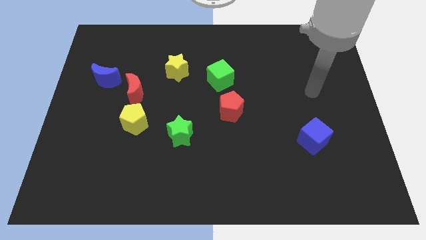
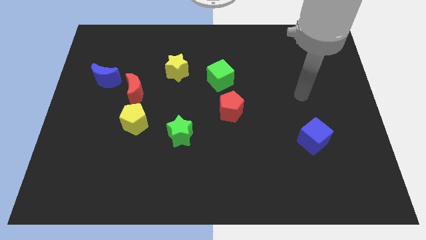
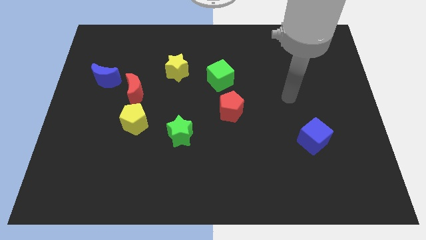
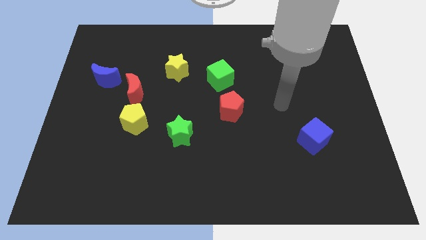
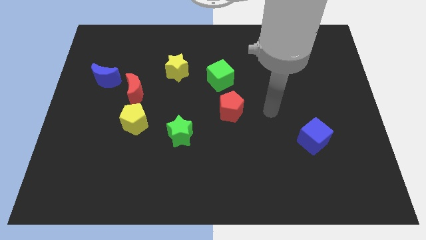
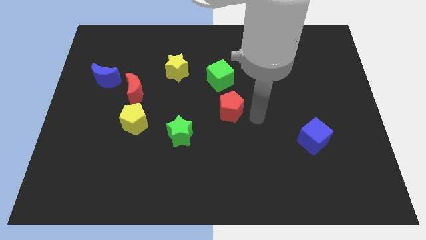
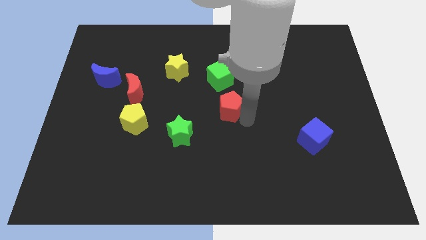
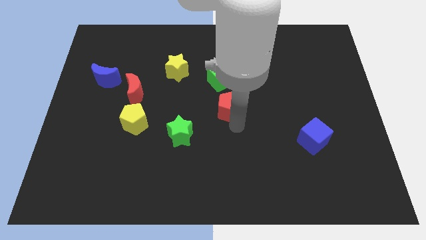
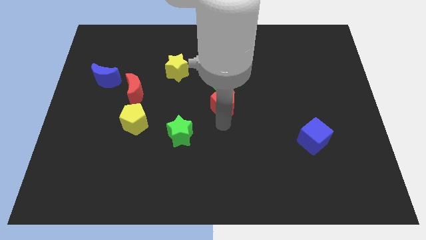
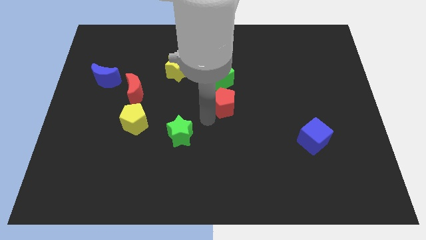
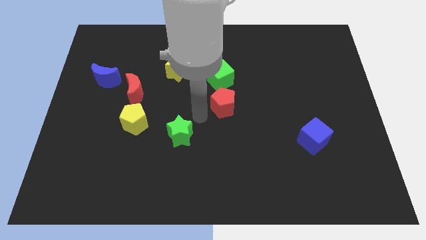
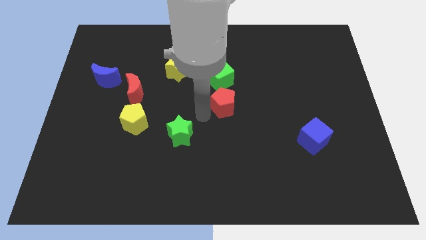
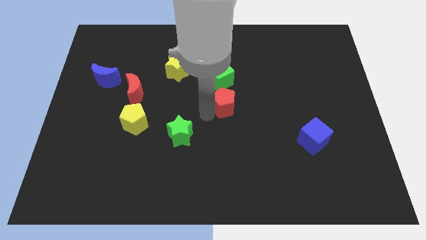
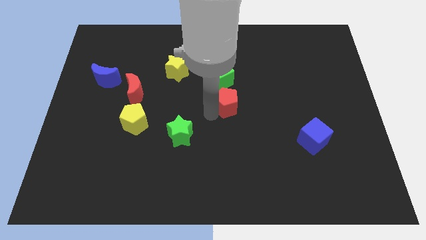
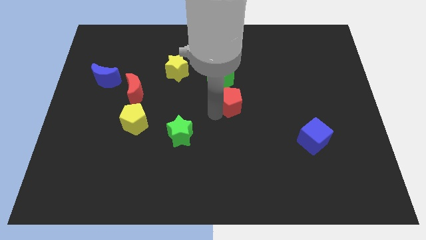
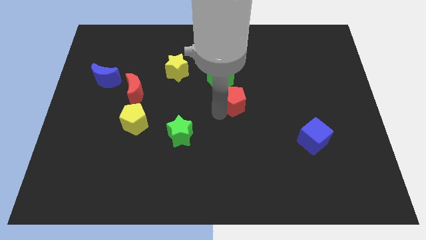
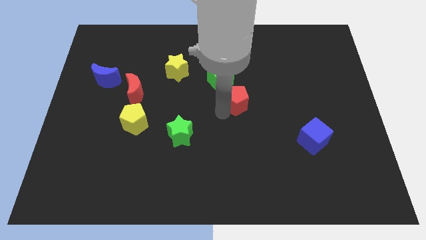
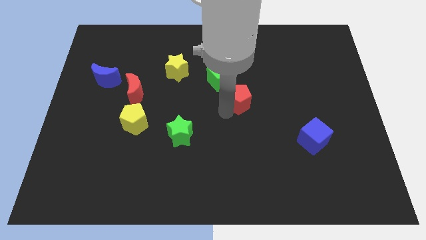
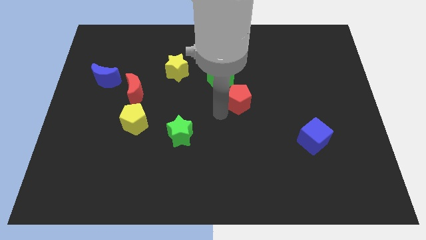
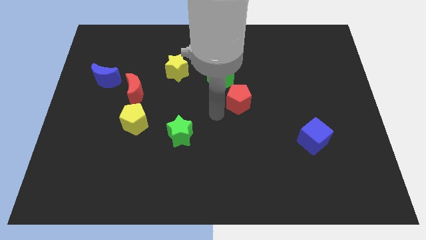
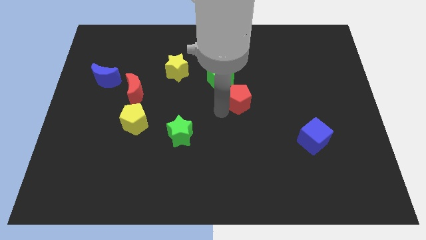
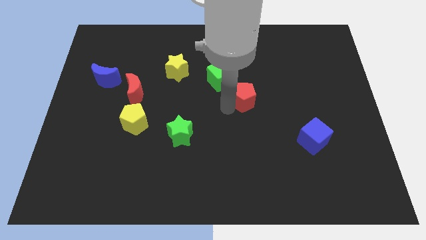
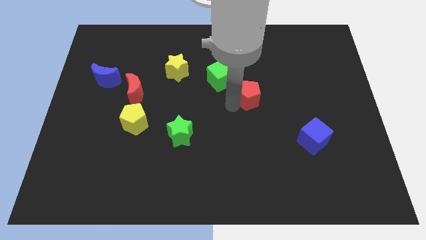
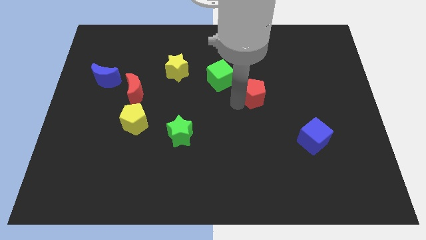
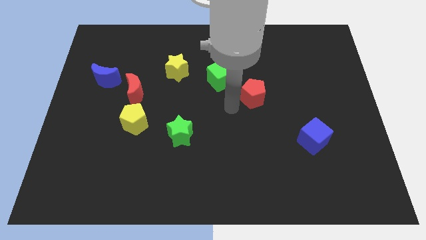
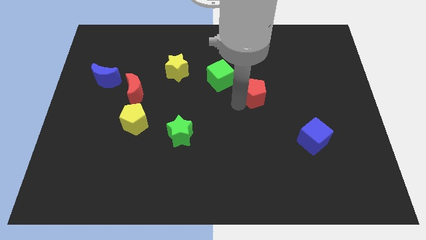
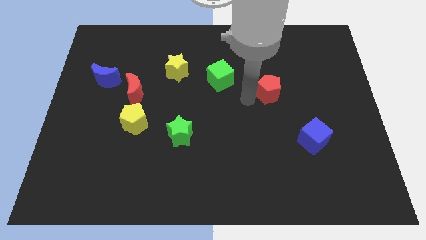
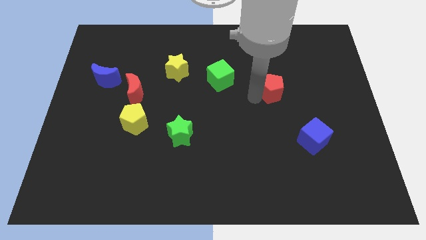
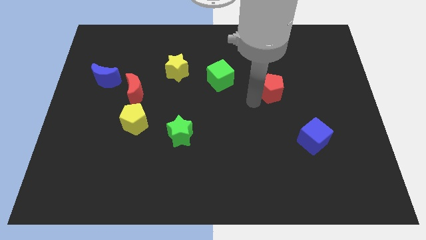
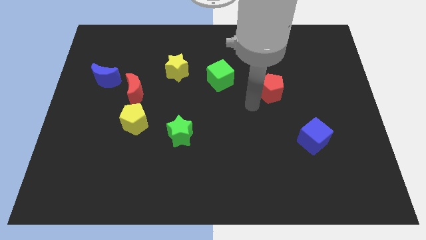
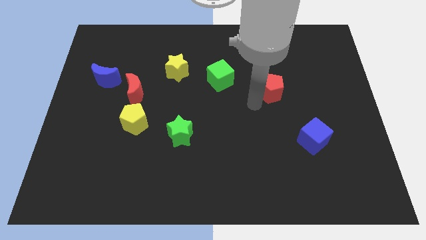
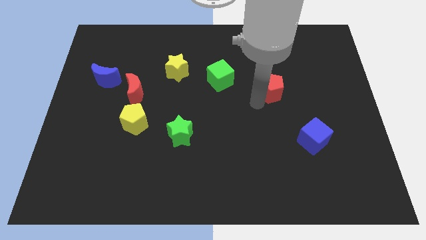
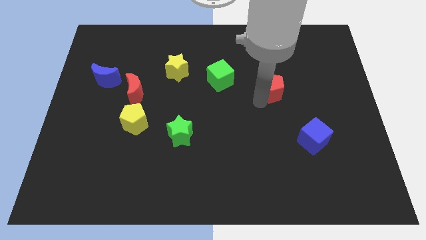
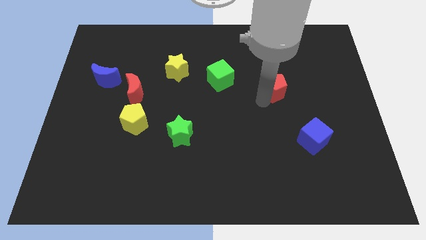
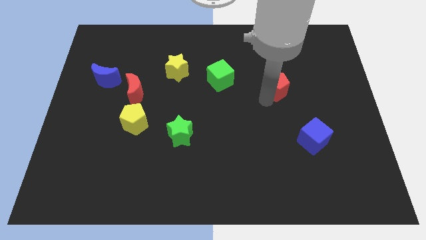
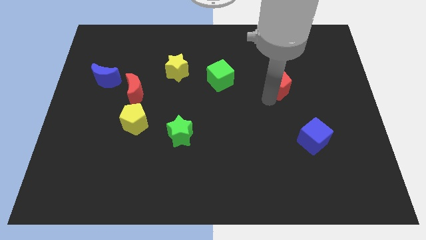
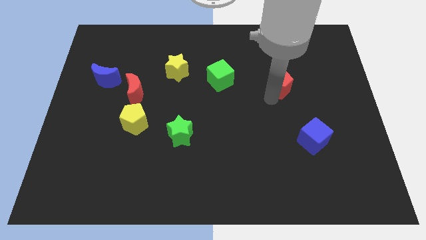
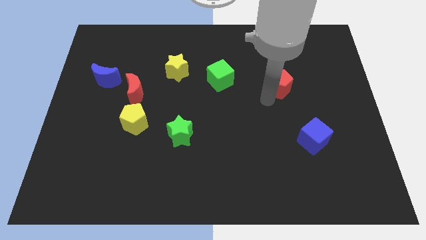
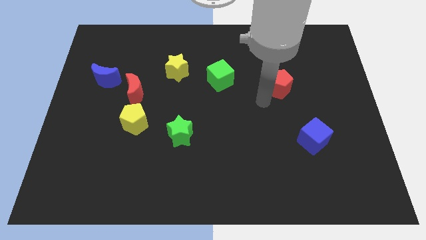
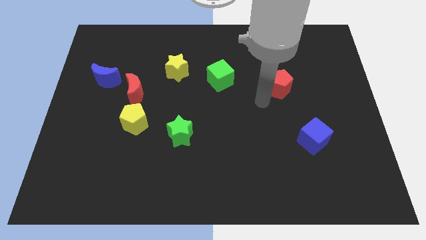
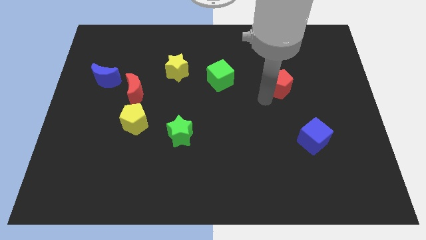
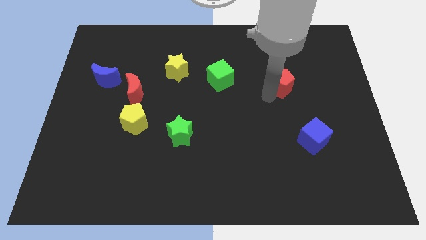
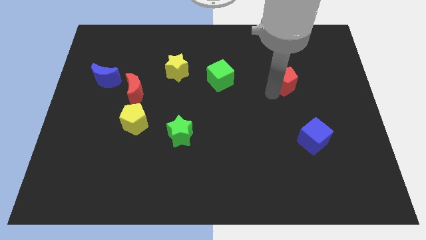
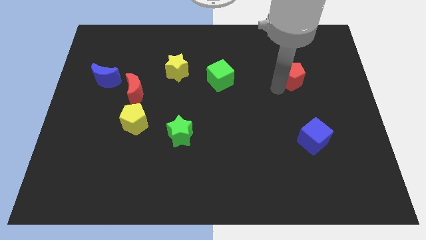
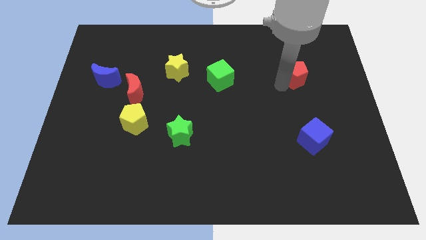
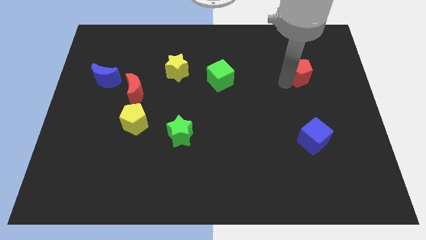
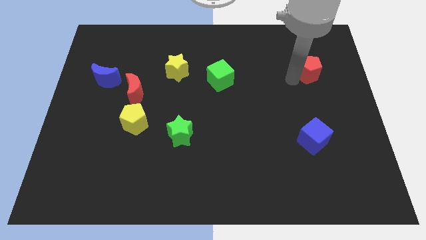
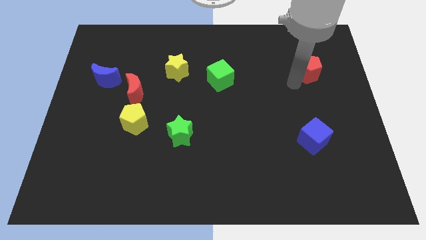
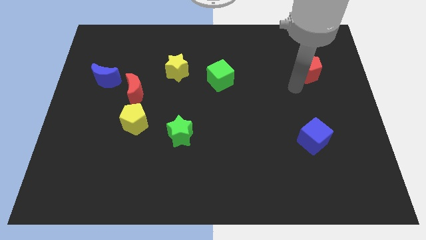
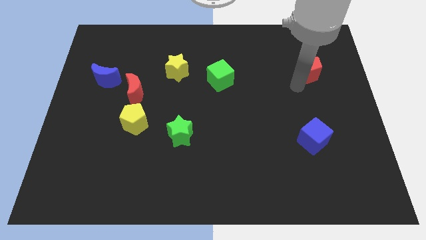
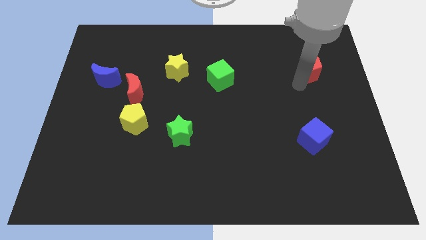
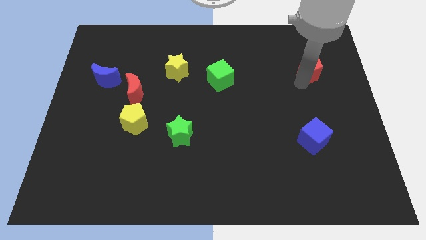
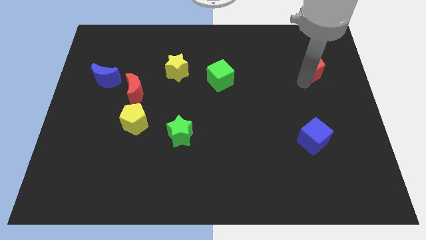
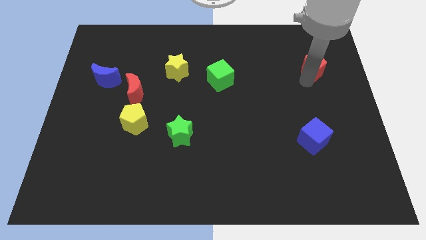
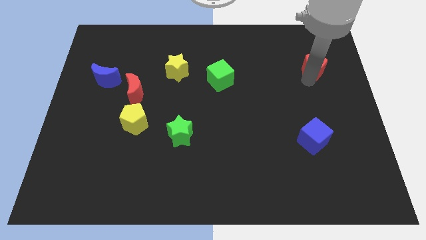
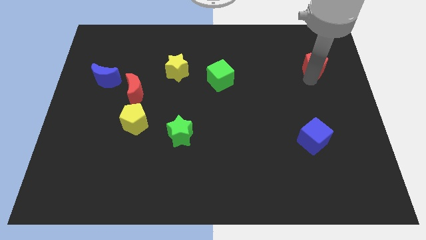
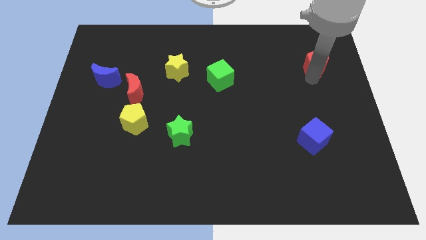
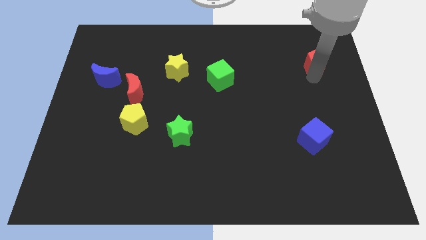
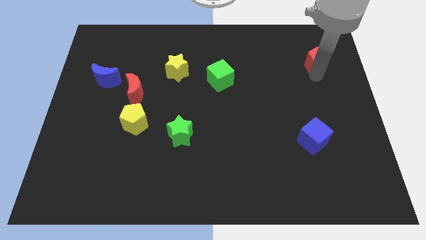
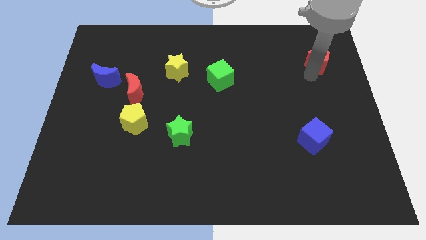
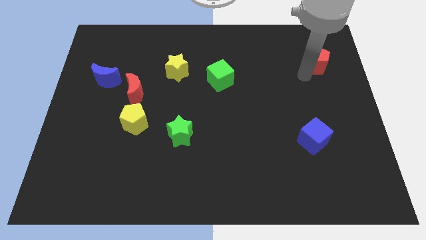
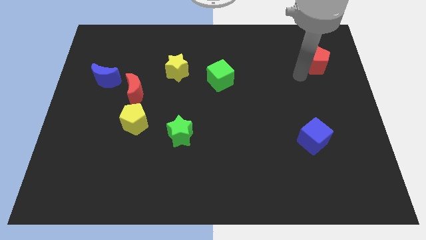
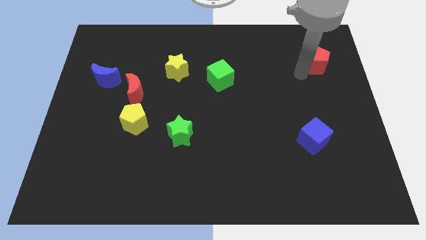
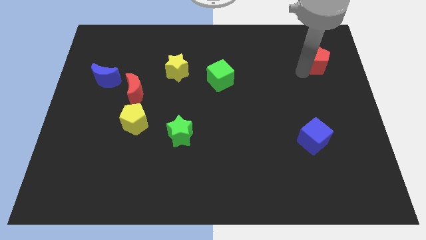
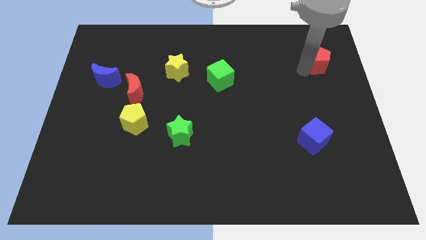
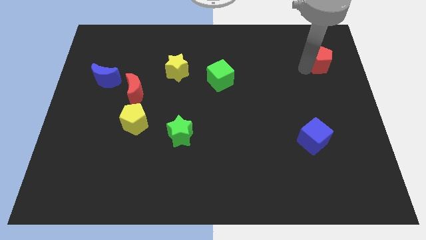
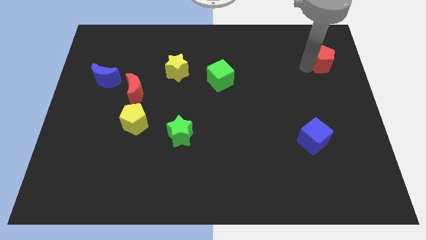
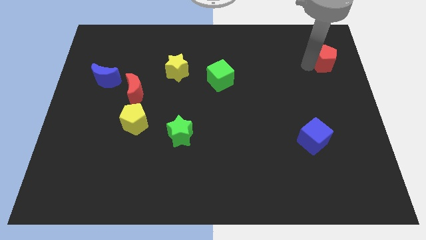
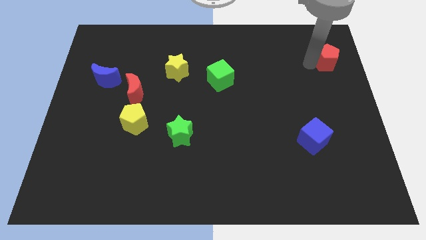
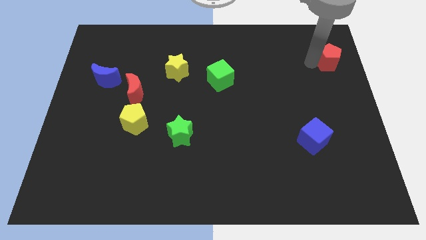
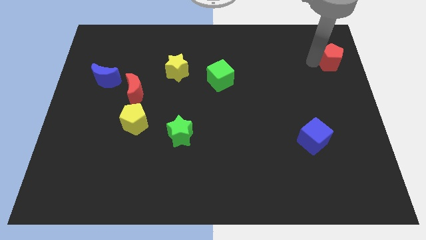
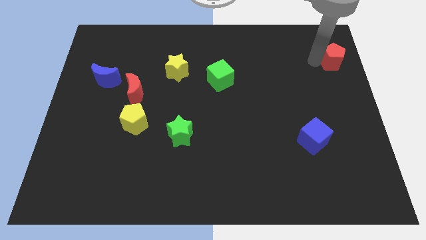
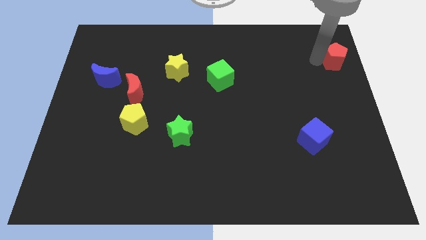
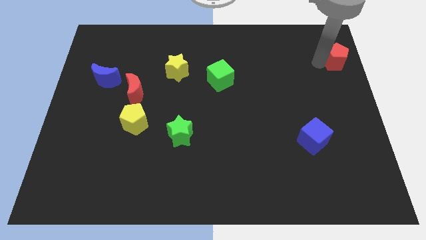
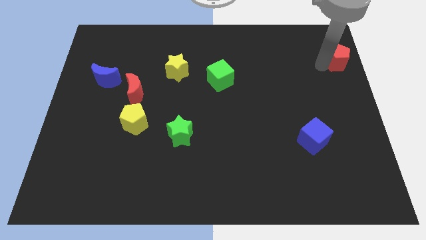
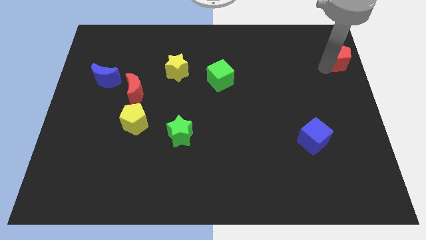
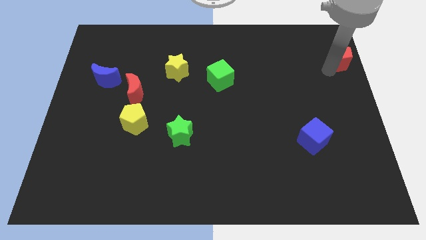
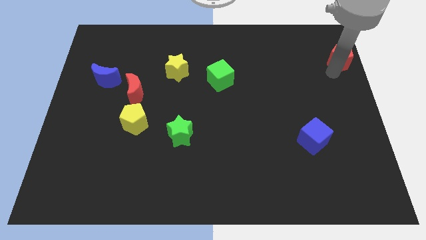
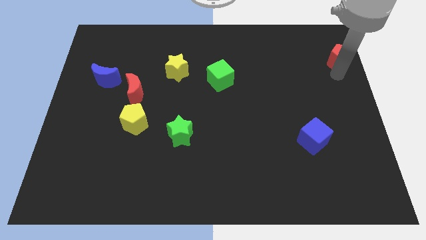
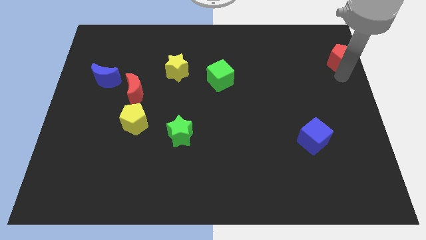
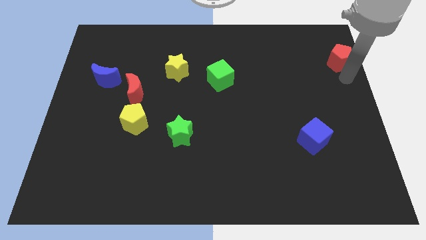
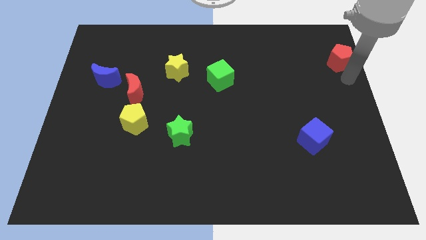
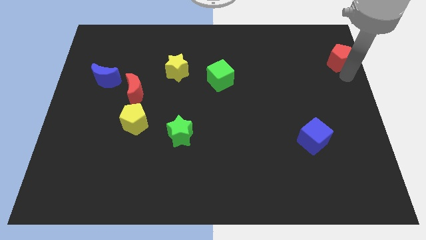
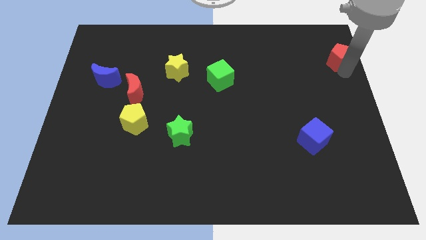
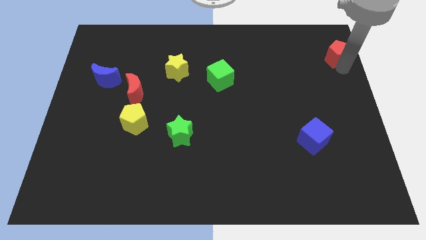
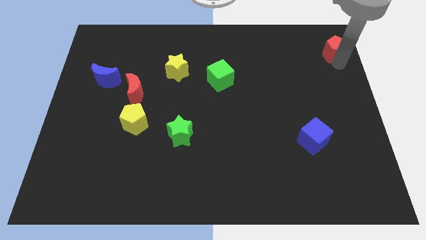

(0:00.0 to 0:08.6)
move the red pentagon to the top right
